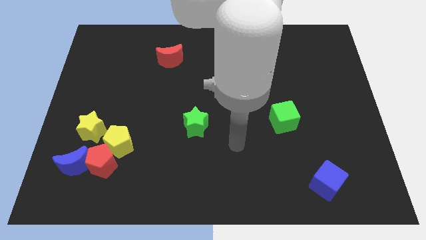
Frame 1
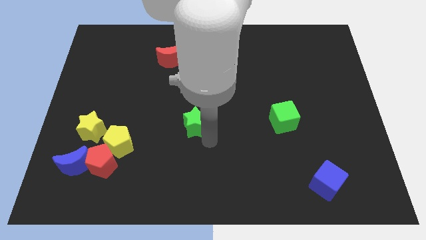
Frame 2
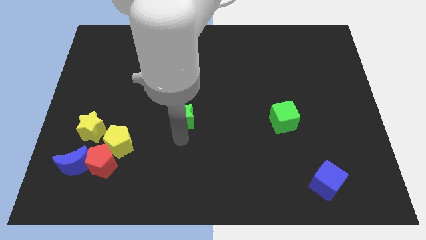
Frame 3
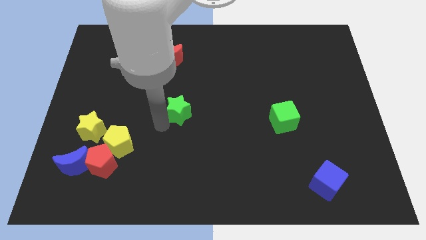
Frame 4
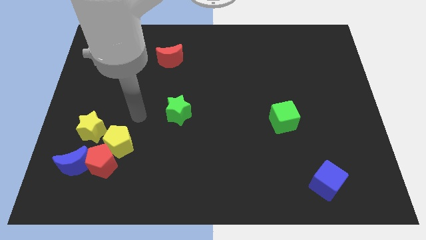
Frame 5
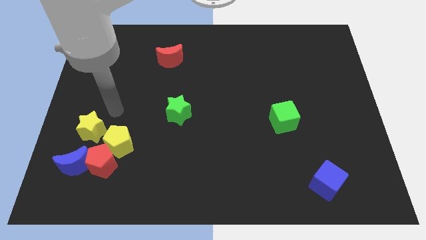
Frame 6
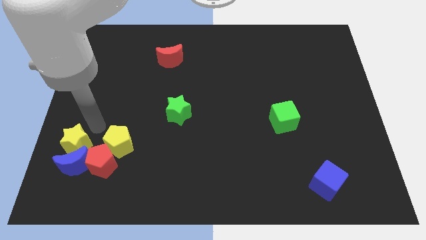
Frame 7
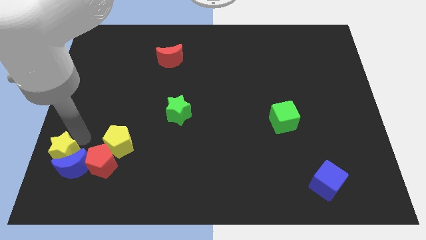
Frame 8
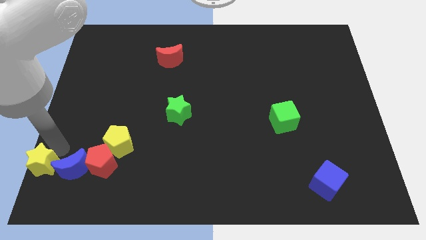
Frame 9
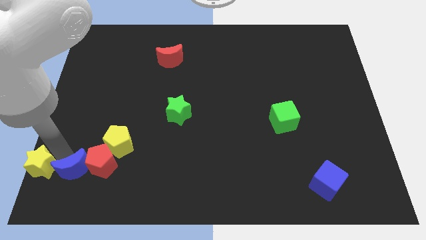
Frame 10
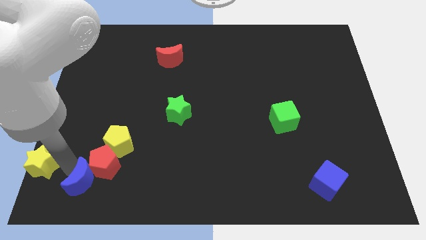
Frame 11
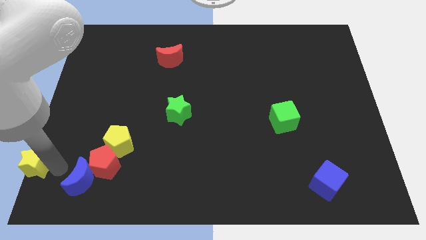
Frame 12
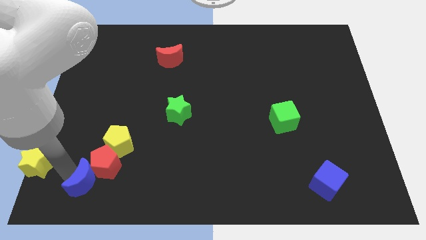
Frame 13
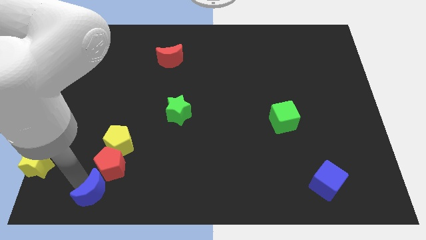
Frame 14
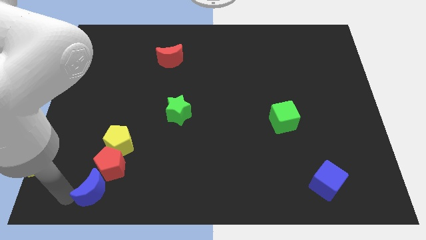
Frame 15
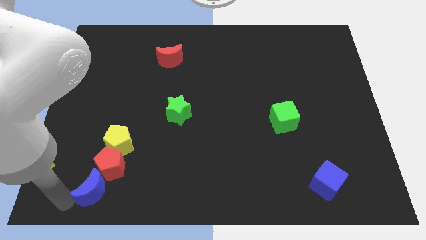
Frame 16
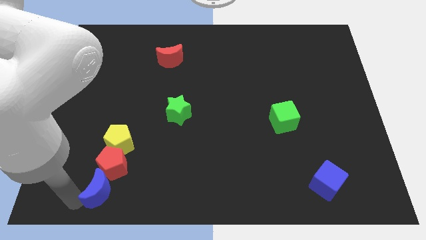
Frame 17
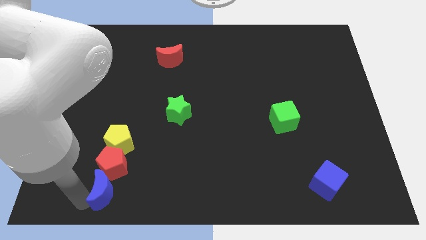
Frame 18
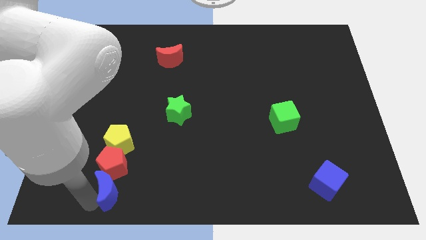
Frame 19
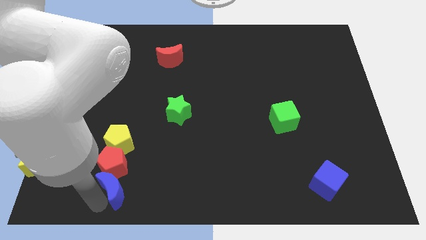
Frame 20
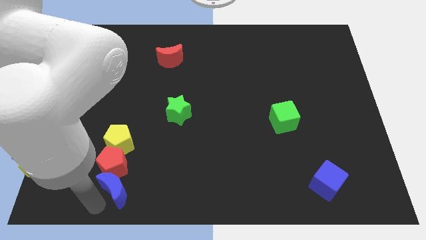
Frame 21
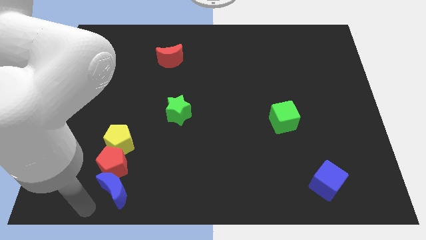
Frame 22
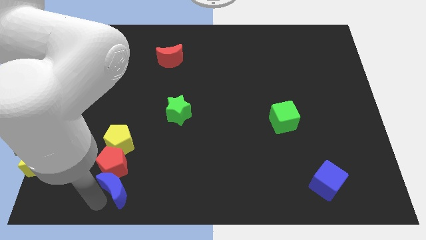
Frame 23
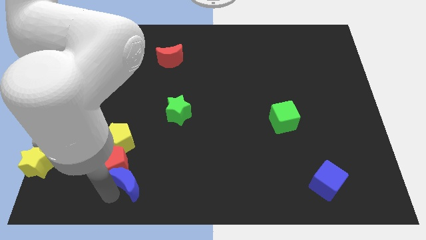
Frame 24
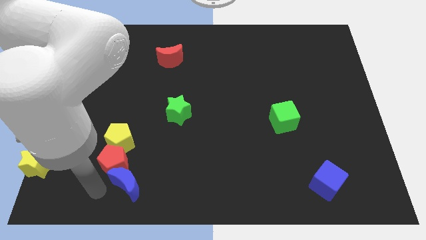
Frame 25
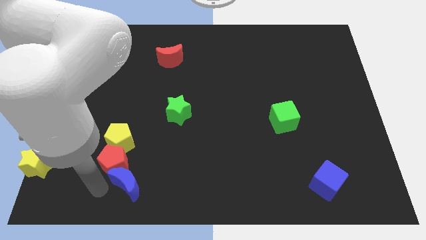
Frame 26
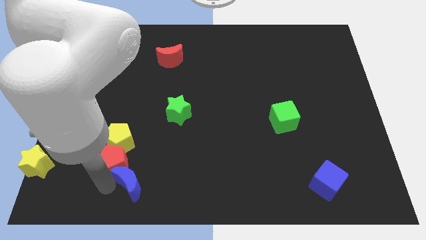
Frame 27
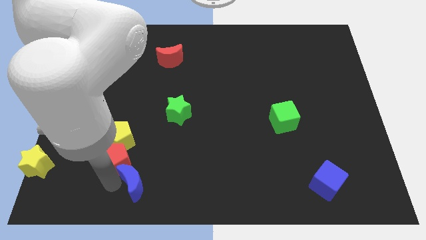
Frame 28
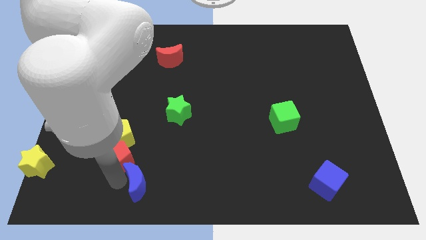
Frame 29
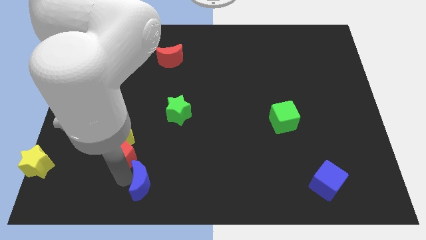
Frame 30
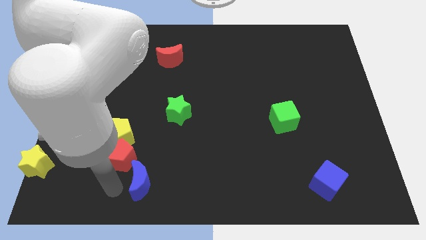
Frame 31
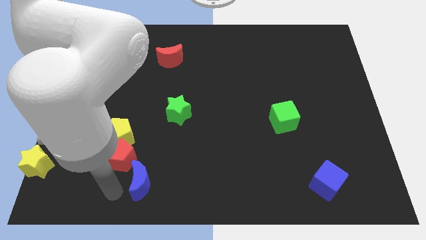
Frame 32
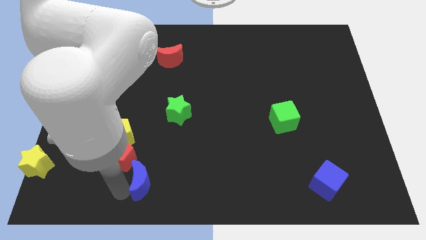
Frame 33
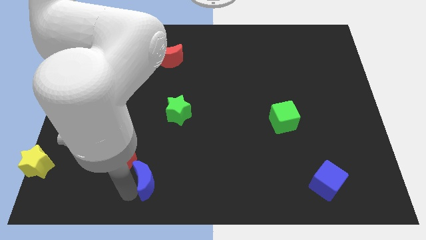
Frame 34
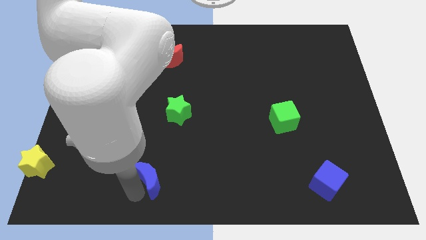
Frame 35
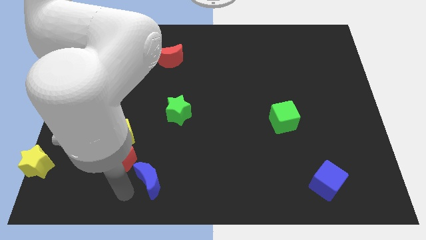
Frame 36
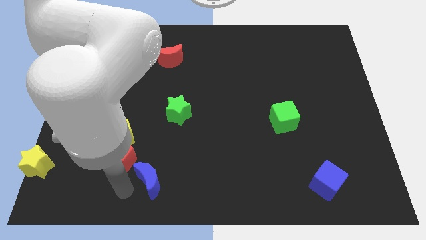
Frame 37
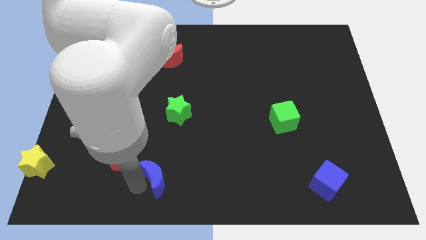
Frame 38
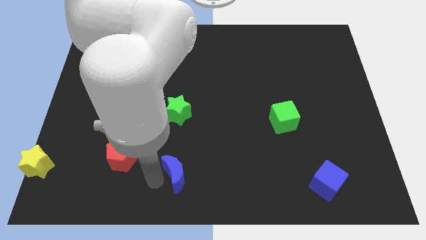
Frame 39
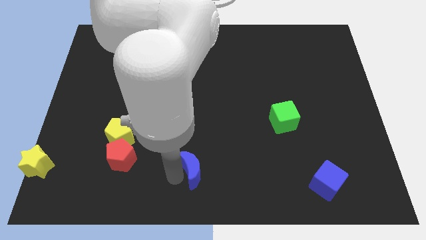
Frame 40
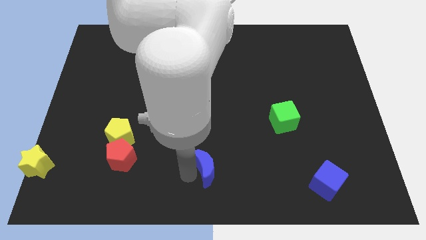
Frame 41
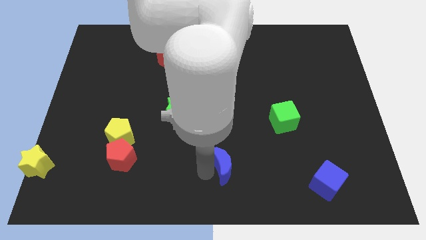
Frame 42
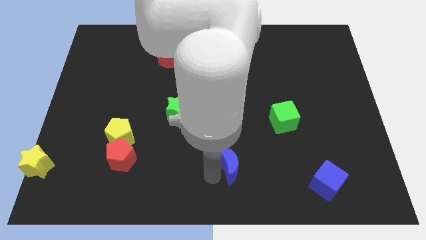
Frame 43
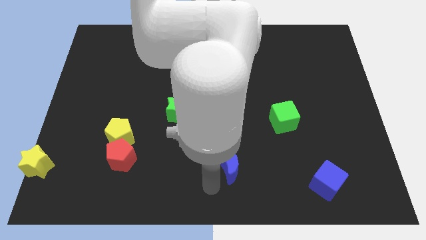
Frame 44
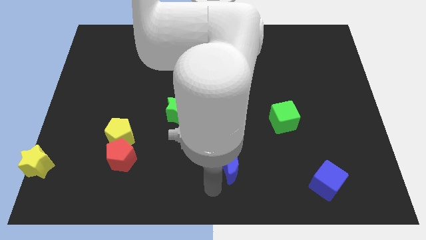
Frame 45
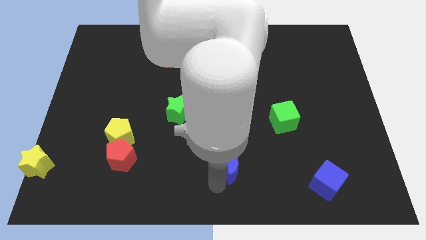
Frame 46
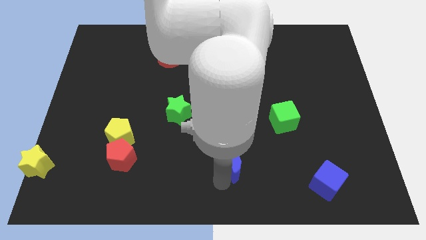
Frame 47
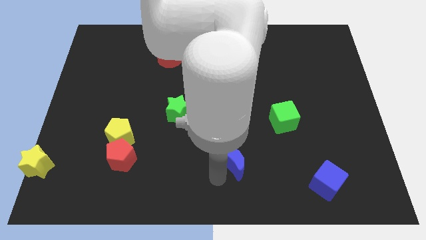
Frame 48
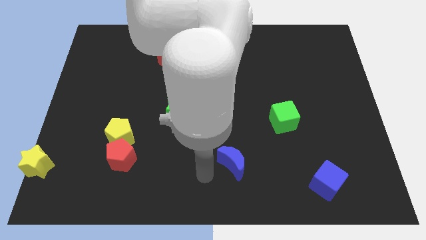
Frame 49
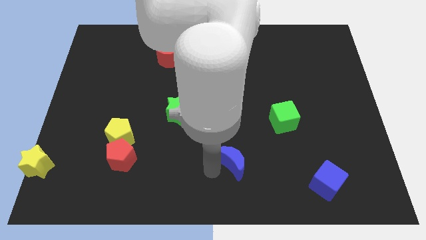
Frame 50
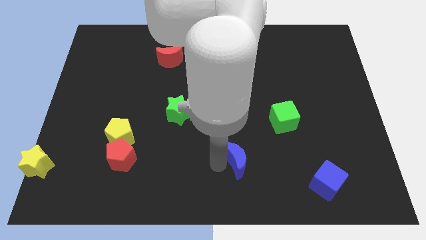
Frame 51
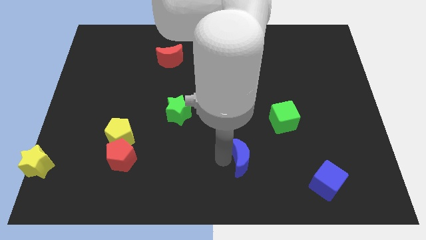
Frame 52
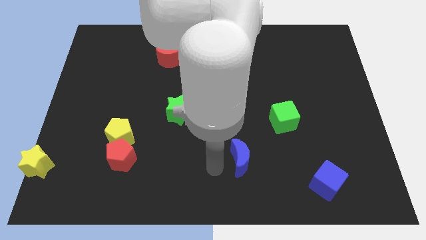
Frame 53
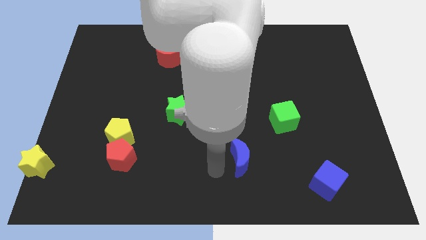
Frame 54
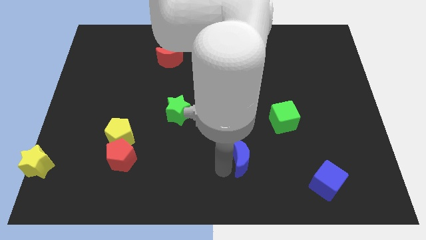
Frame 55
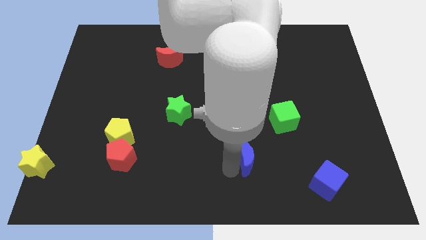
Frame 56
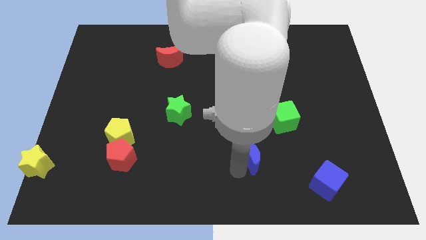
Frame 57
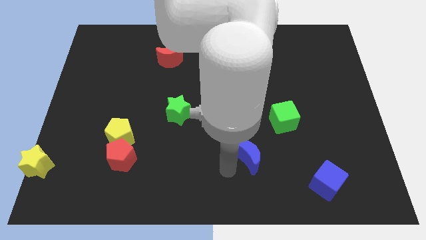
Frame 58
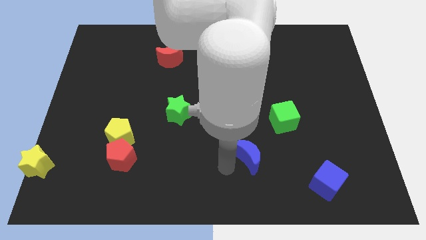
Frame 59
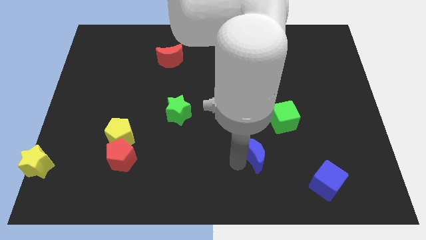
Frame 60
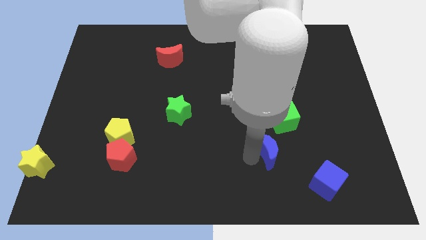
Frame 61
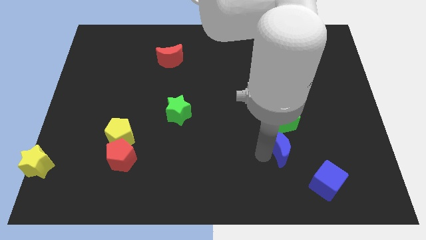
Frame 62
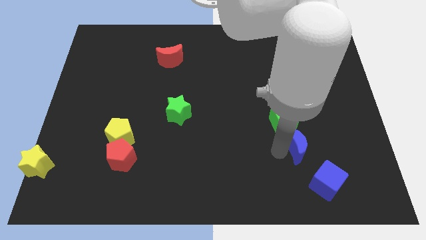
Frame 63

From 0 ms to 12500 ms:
put the blue moon diagonally down and to the right of the green cube
